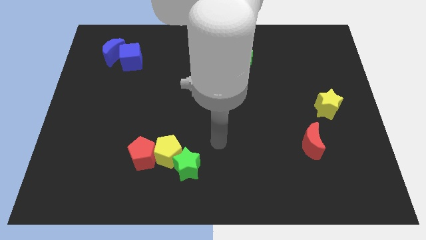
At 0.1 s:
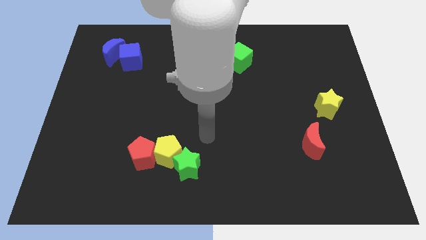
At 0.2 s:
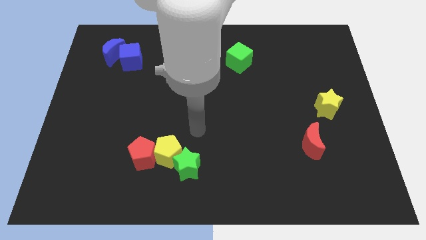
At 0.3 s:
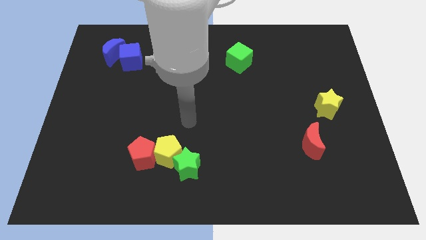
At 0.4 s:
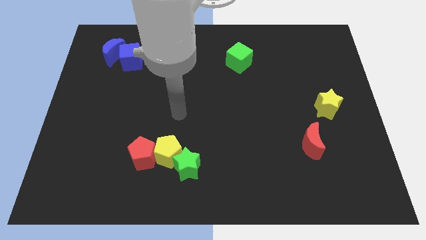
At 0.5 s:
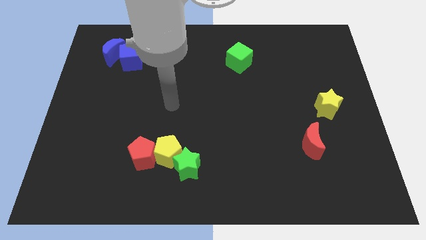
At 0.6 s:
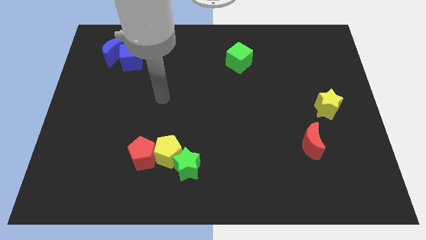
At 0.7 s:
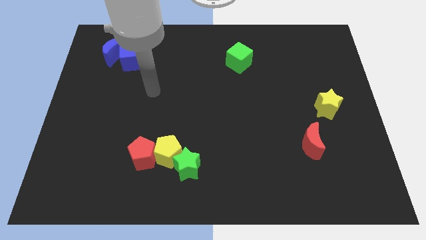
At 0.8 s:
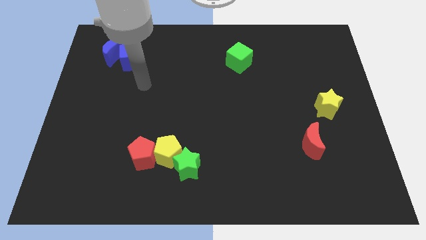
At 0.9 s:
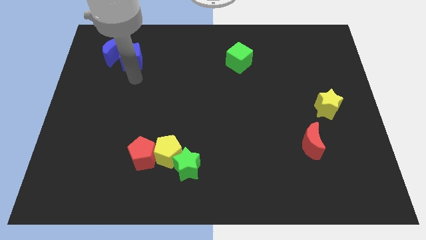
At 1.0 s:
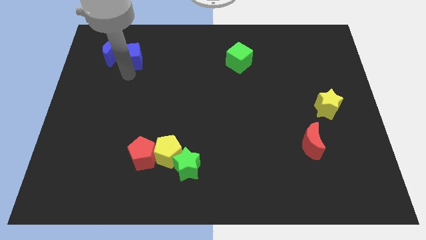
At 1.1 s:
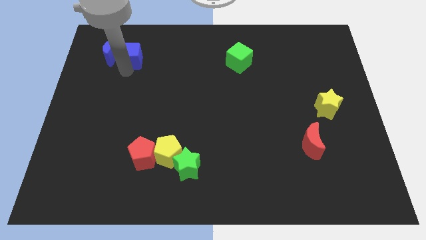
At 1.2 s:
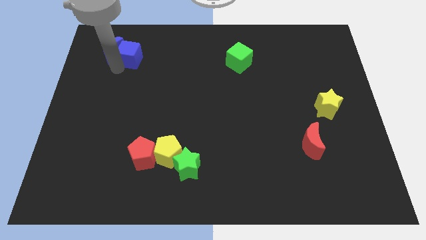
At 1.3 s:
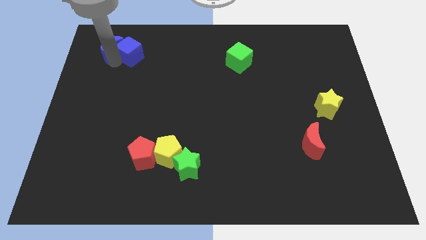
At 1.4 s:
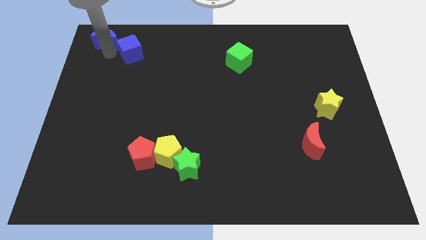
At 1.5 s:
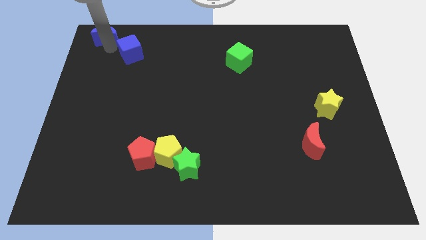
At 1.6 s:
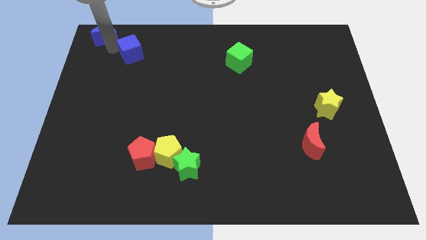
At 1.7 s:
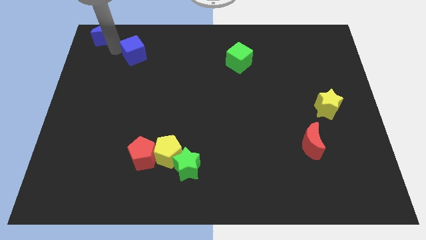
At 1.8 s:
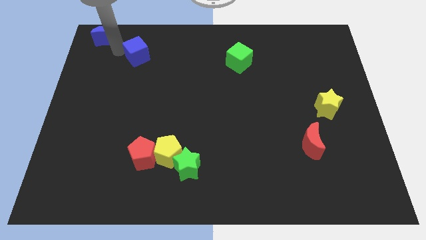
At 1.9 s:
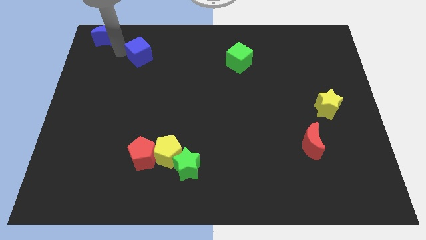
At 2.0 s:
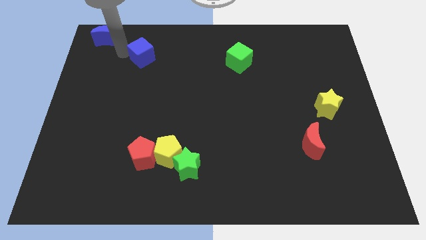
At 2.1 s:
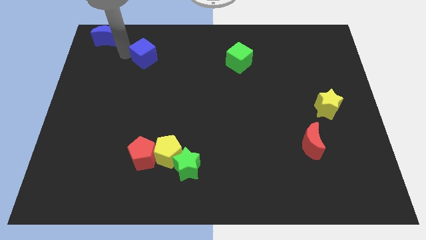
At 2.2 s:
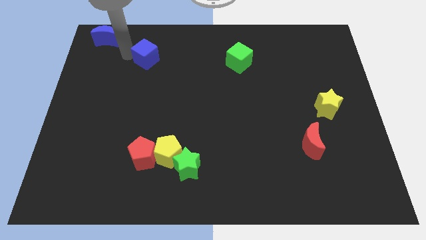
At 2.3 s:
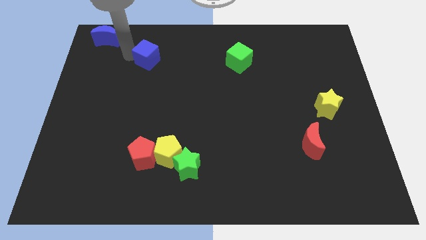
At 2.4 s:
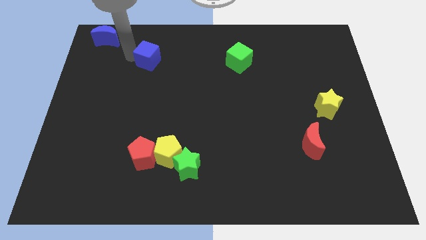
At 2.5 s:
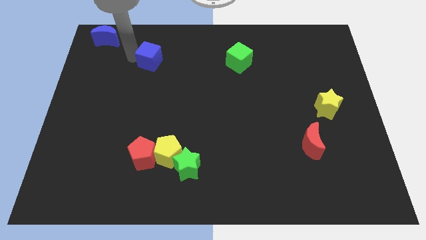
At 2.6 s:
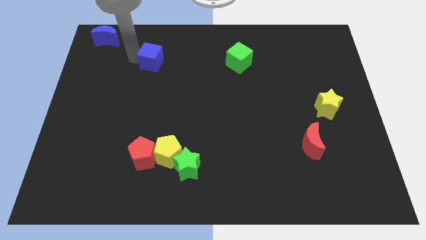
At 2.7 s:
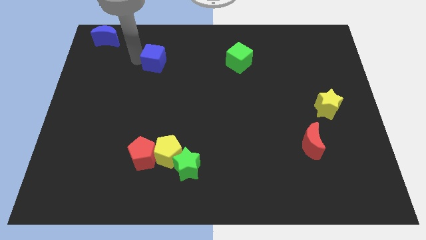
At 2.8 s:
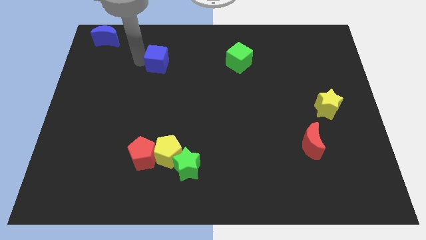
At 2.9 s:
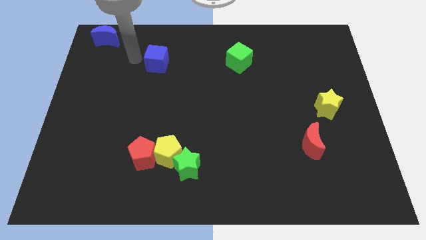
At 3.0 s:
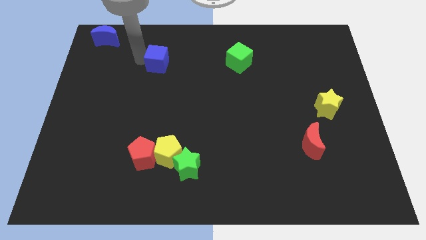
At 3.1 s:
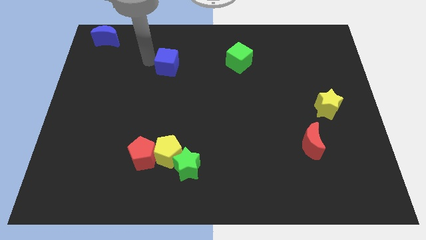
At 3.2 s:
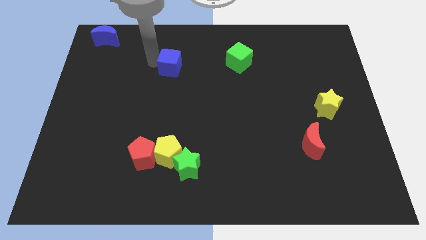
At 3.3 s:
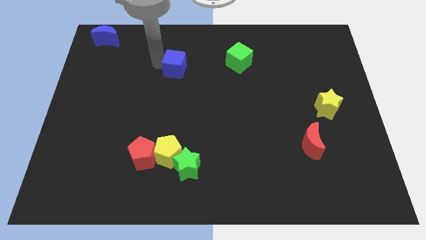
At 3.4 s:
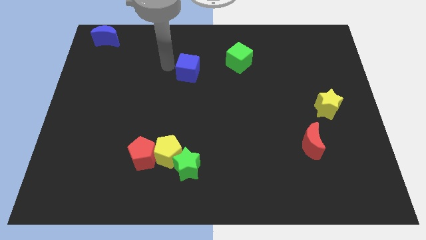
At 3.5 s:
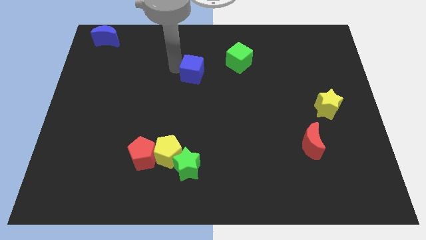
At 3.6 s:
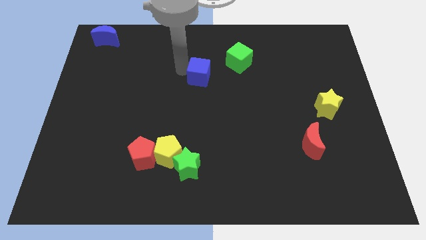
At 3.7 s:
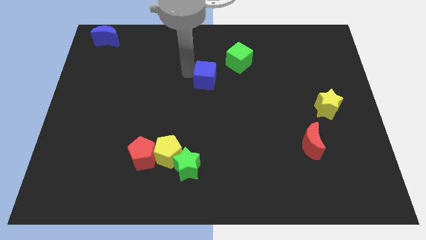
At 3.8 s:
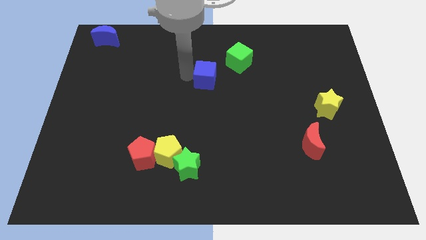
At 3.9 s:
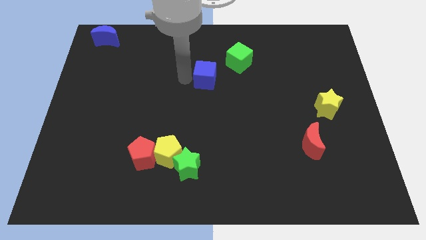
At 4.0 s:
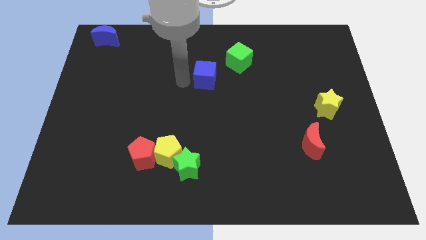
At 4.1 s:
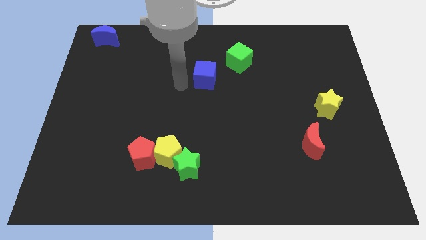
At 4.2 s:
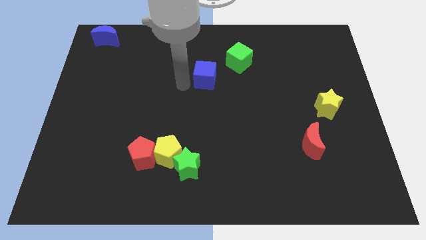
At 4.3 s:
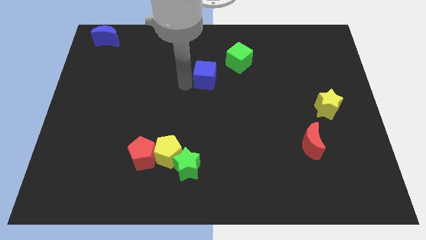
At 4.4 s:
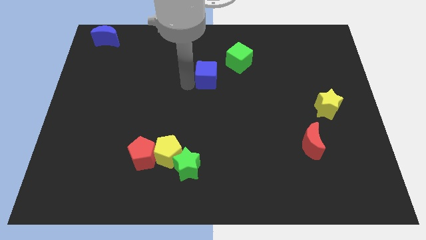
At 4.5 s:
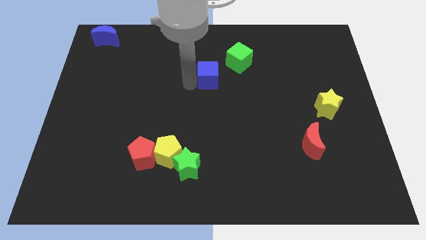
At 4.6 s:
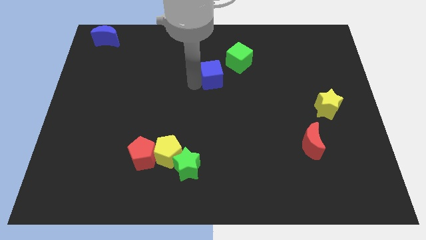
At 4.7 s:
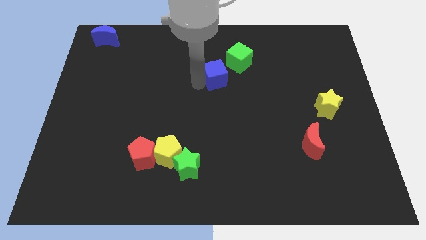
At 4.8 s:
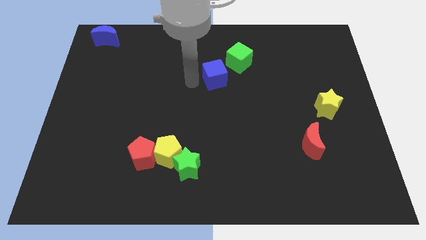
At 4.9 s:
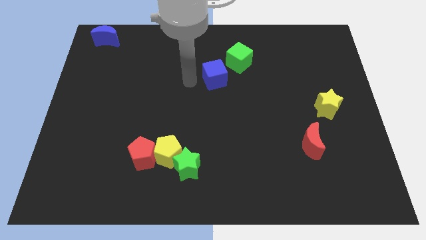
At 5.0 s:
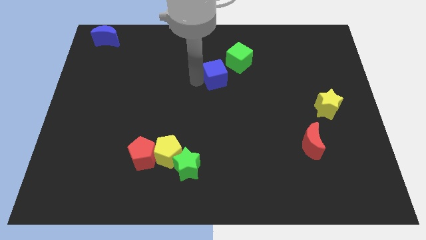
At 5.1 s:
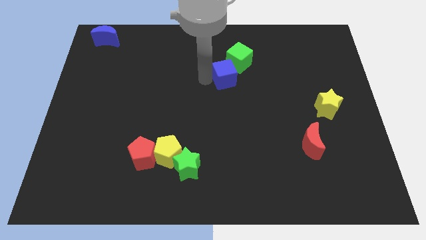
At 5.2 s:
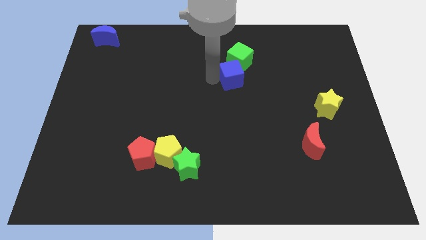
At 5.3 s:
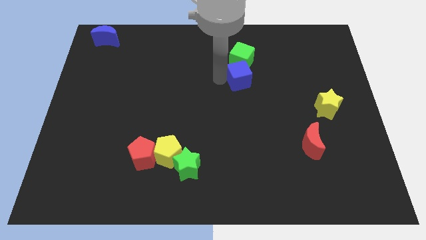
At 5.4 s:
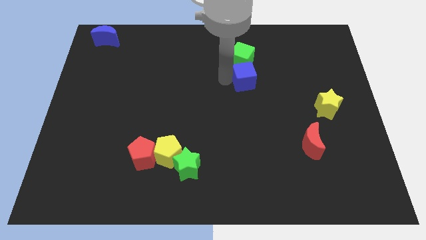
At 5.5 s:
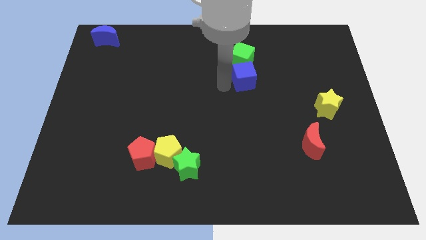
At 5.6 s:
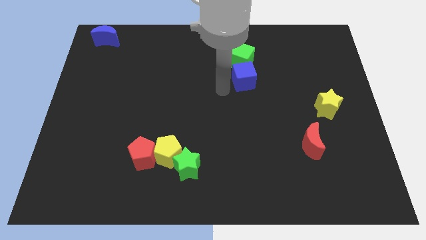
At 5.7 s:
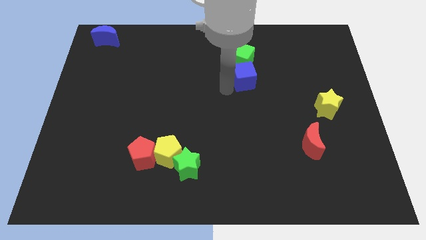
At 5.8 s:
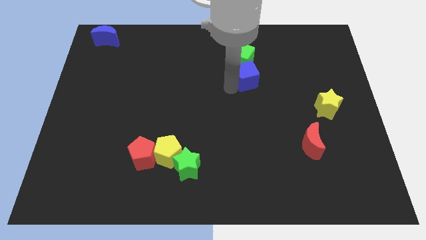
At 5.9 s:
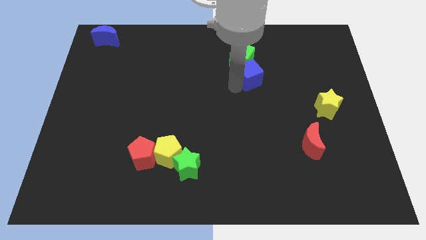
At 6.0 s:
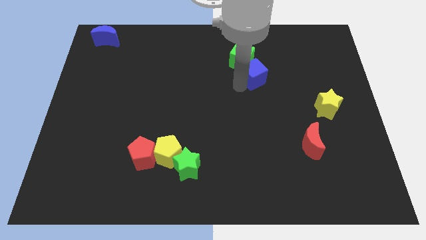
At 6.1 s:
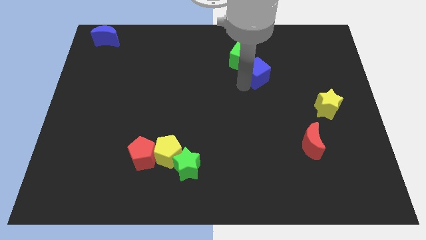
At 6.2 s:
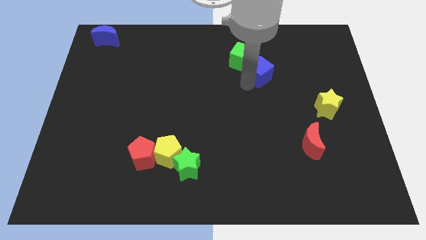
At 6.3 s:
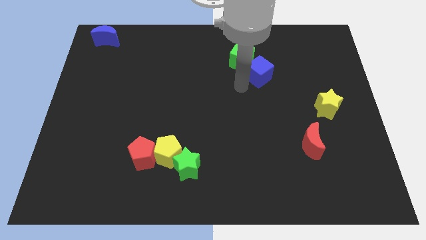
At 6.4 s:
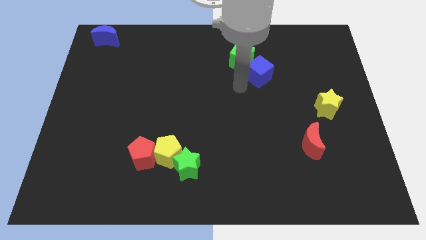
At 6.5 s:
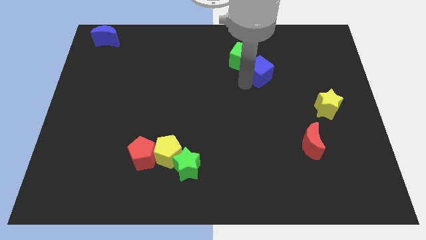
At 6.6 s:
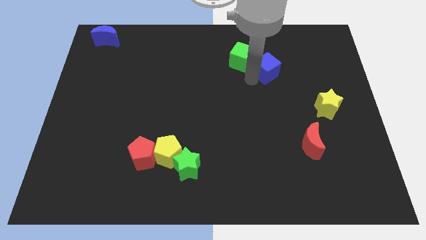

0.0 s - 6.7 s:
put the blue cube to the right of the green cube
